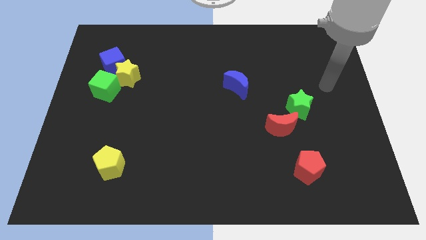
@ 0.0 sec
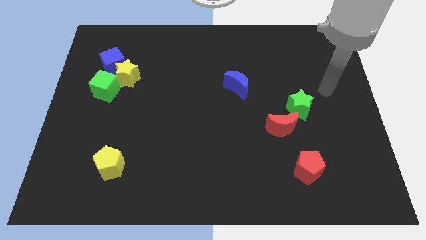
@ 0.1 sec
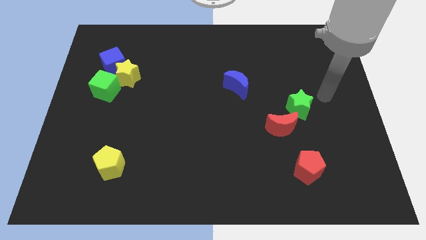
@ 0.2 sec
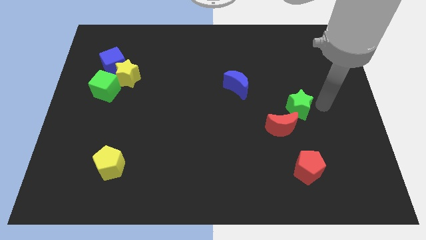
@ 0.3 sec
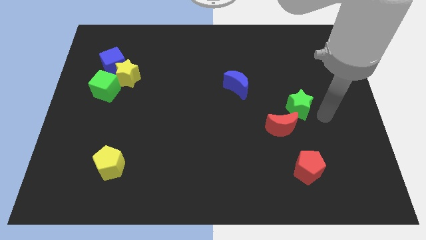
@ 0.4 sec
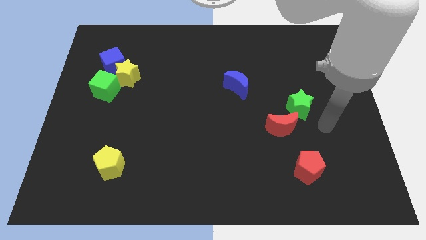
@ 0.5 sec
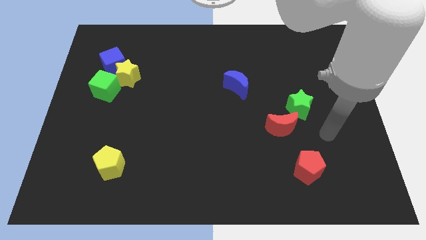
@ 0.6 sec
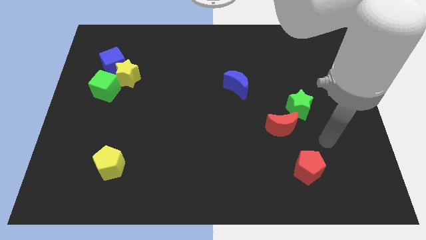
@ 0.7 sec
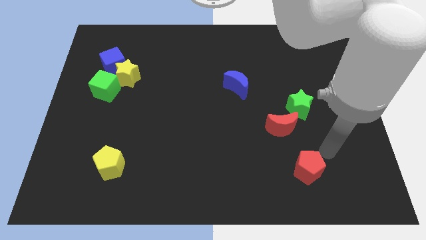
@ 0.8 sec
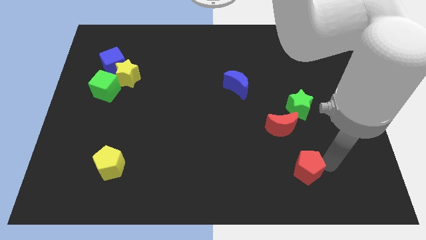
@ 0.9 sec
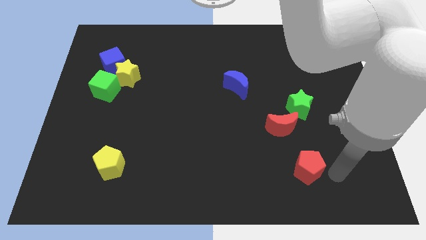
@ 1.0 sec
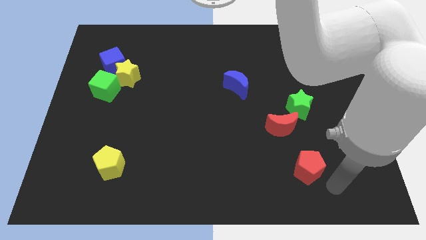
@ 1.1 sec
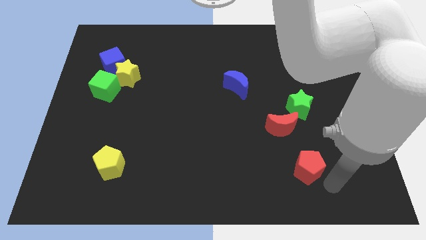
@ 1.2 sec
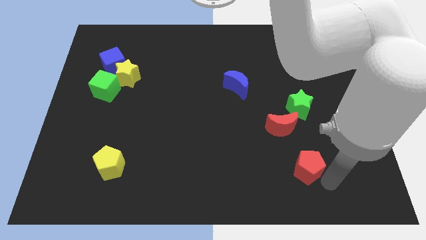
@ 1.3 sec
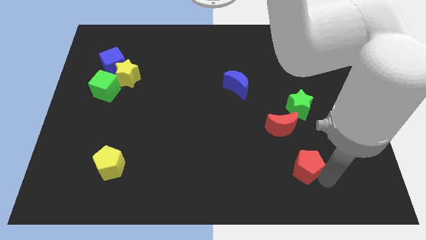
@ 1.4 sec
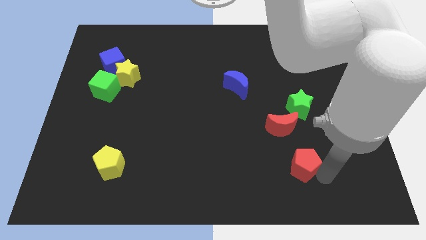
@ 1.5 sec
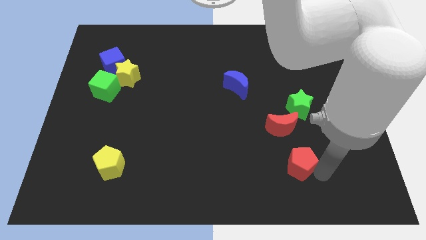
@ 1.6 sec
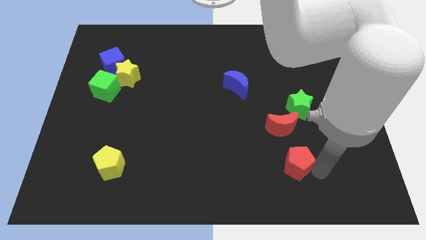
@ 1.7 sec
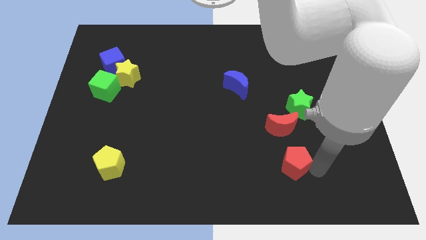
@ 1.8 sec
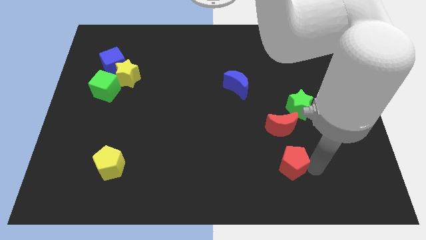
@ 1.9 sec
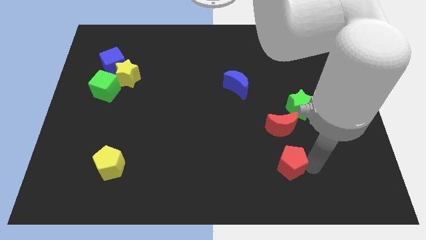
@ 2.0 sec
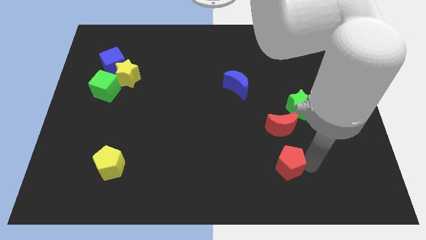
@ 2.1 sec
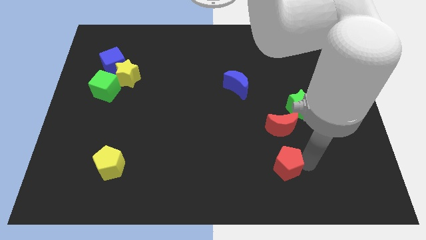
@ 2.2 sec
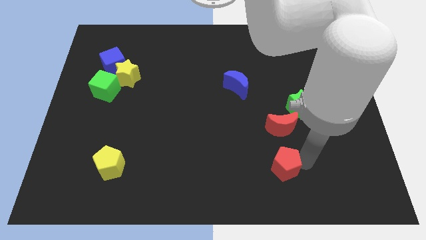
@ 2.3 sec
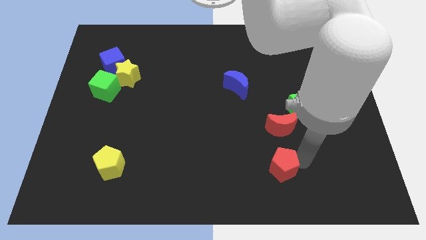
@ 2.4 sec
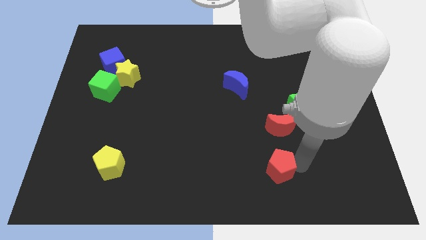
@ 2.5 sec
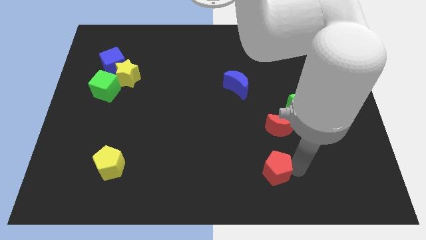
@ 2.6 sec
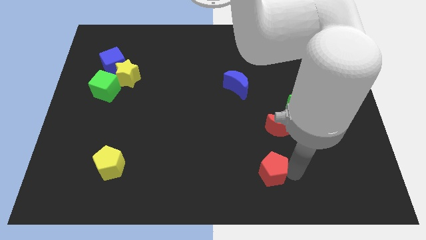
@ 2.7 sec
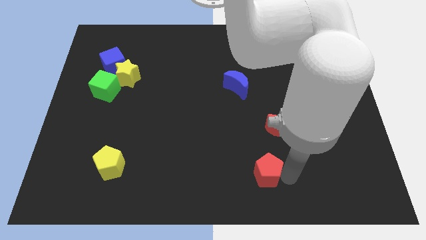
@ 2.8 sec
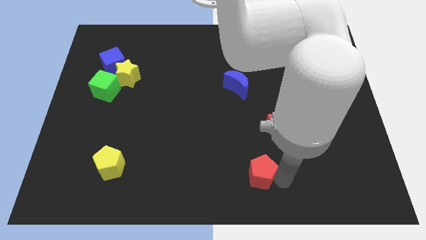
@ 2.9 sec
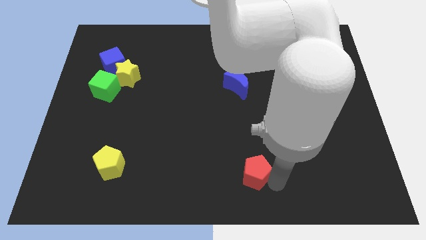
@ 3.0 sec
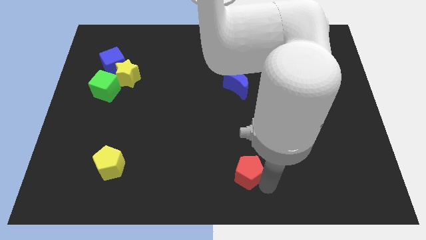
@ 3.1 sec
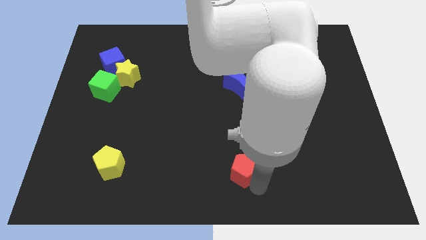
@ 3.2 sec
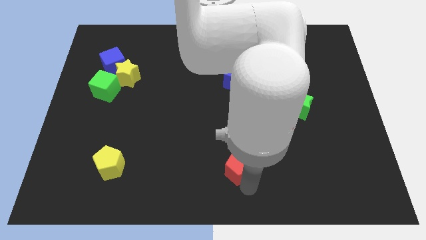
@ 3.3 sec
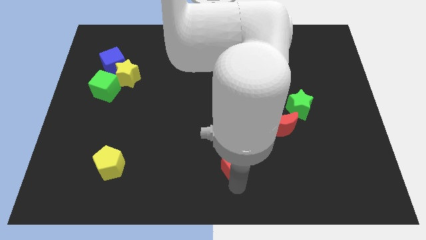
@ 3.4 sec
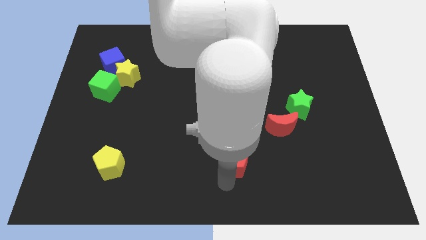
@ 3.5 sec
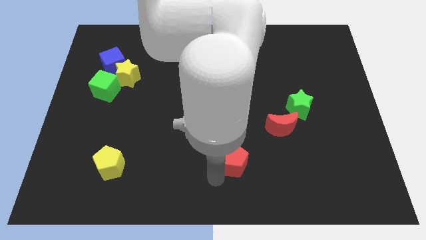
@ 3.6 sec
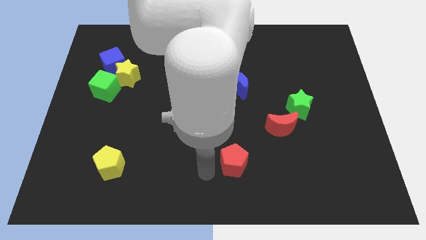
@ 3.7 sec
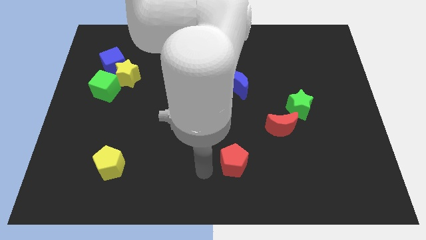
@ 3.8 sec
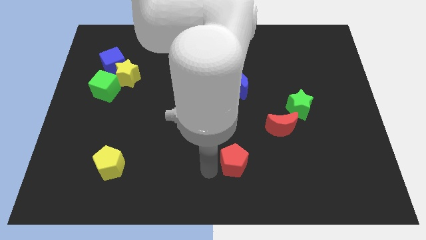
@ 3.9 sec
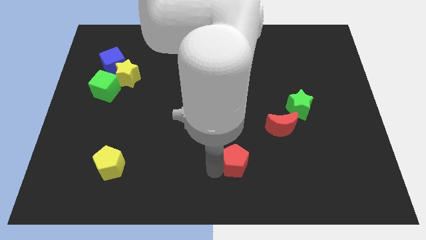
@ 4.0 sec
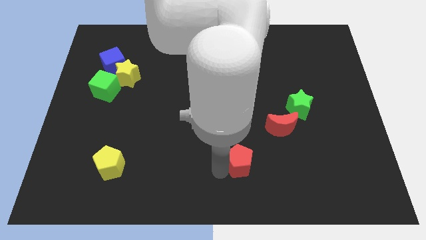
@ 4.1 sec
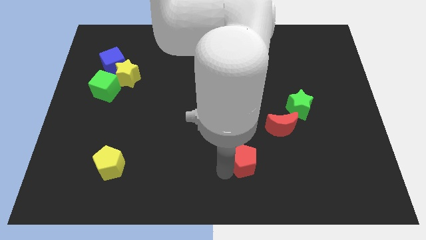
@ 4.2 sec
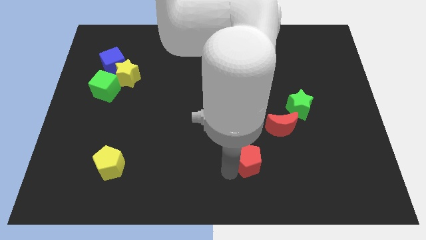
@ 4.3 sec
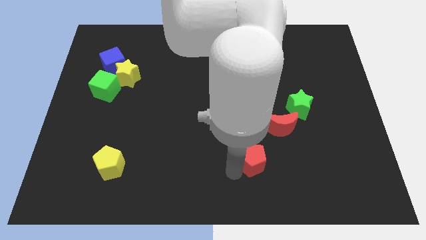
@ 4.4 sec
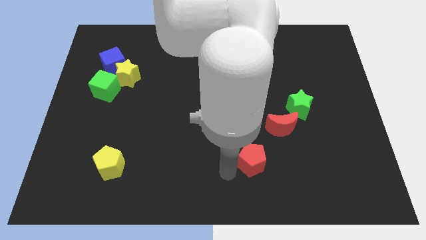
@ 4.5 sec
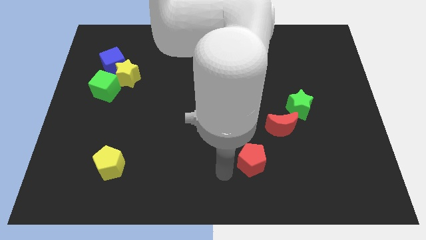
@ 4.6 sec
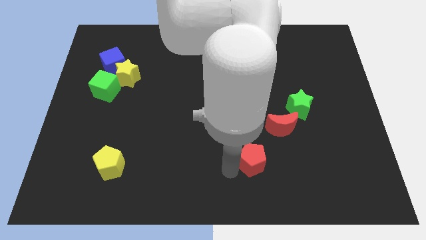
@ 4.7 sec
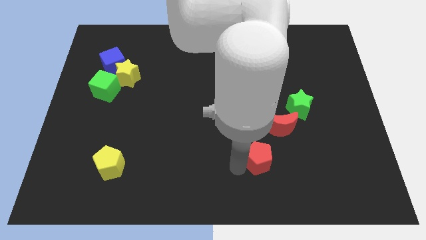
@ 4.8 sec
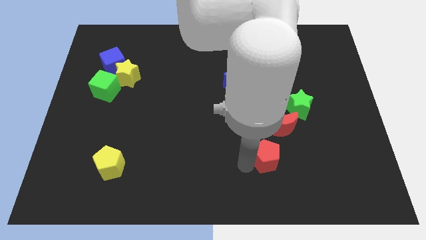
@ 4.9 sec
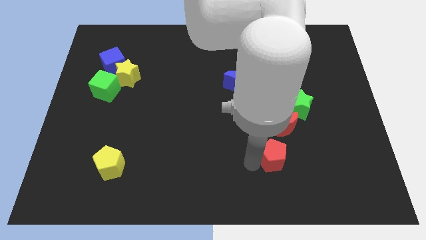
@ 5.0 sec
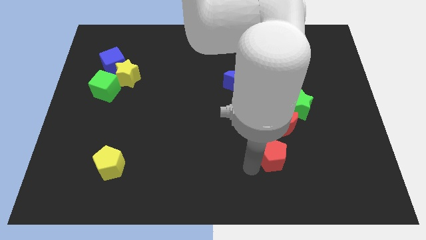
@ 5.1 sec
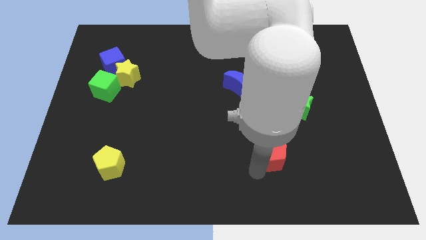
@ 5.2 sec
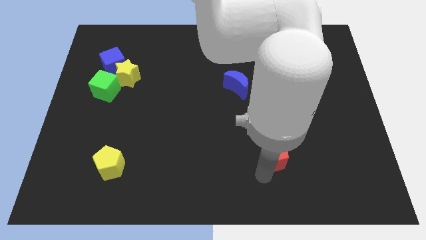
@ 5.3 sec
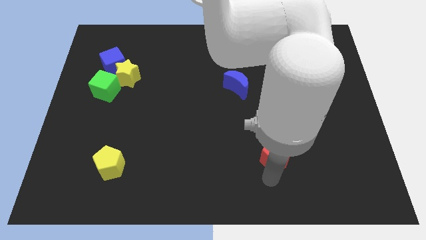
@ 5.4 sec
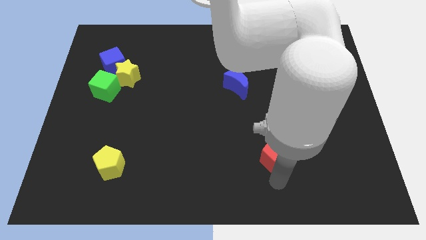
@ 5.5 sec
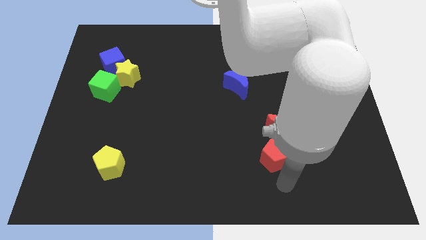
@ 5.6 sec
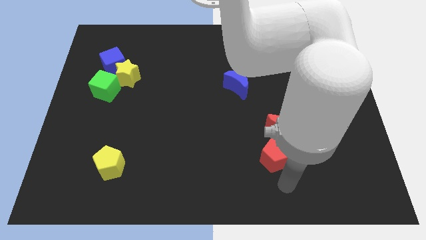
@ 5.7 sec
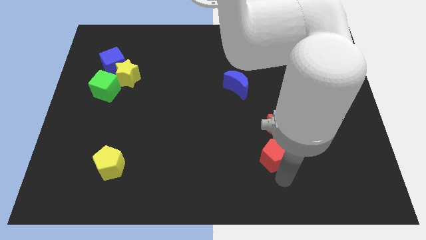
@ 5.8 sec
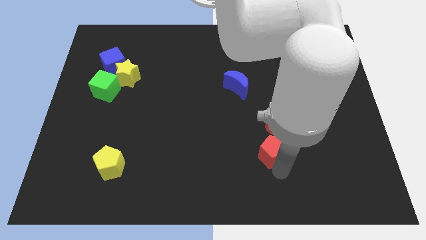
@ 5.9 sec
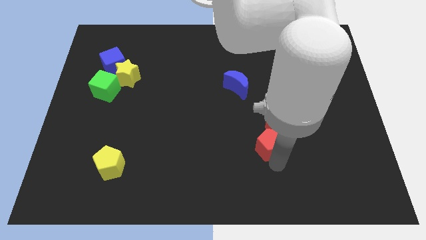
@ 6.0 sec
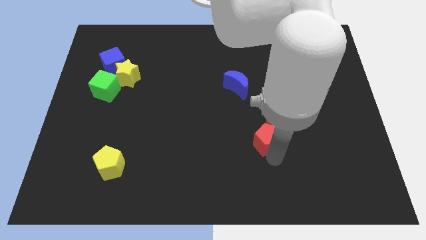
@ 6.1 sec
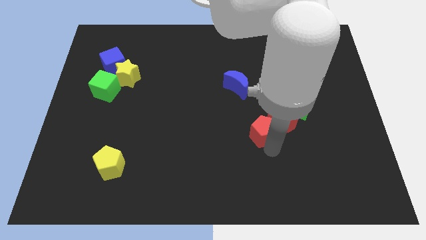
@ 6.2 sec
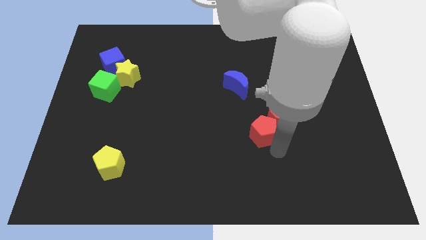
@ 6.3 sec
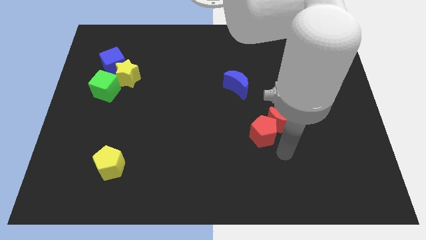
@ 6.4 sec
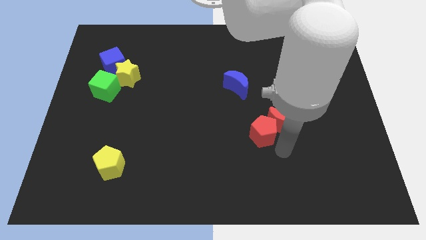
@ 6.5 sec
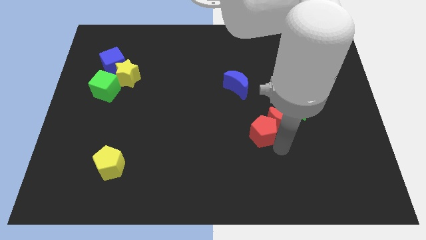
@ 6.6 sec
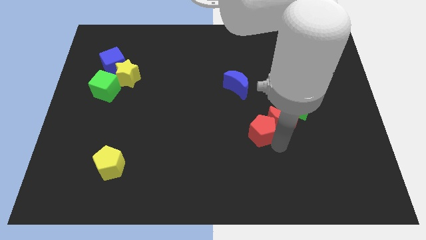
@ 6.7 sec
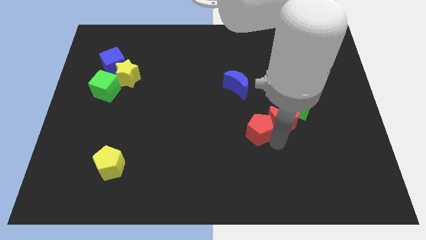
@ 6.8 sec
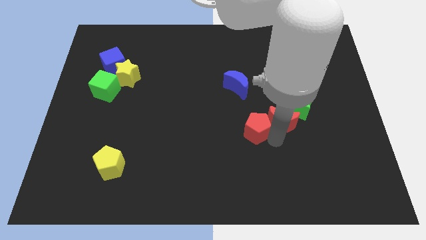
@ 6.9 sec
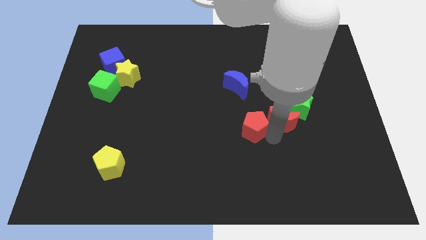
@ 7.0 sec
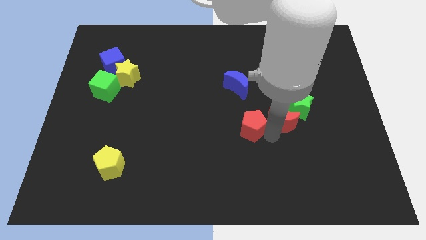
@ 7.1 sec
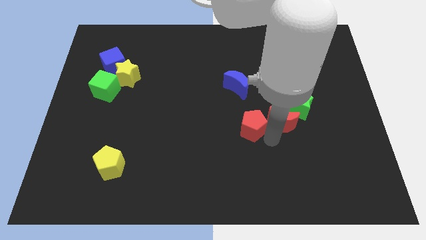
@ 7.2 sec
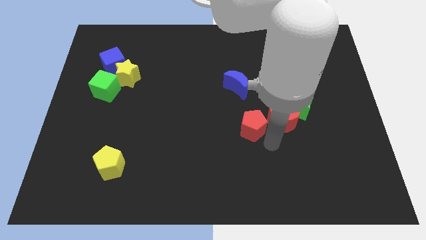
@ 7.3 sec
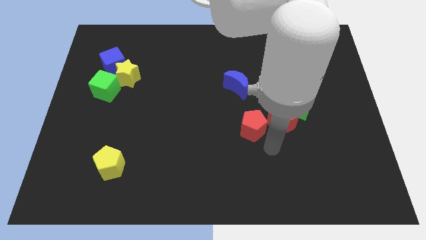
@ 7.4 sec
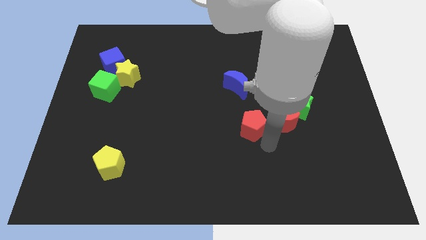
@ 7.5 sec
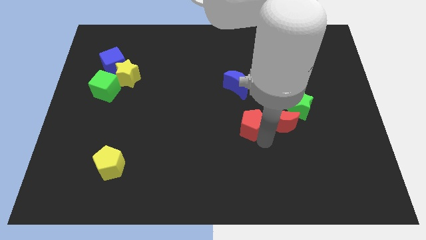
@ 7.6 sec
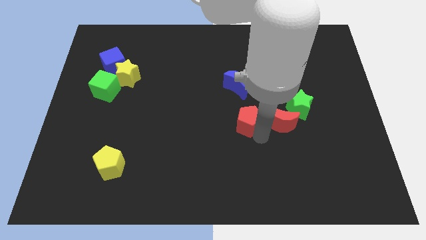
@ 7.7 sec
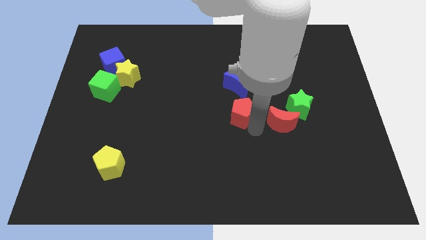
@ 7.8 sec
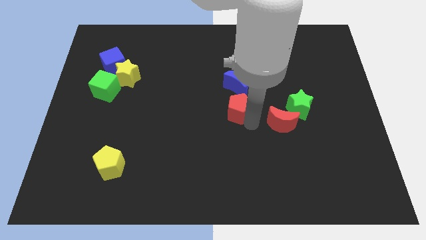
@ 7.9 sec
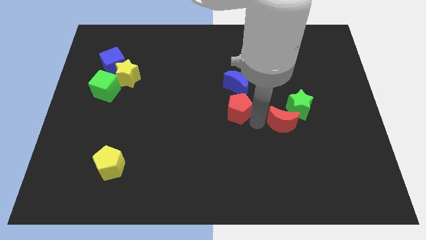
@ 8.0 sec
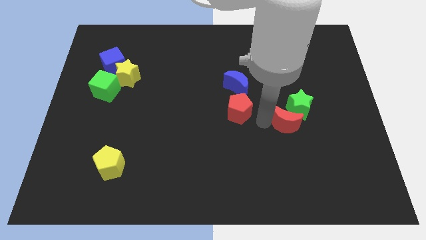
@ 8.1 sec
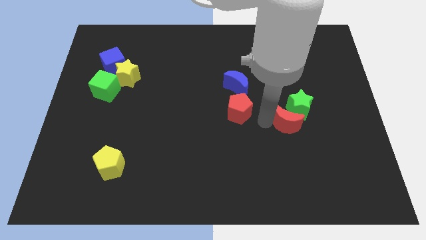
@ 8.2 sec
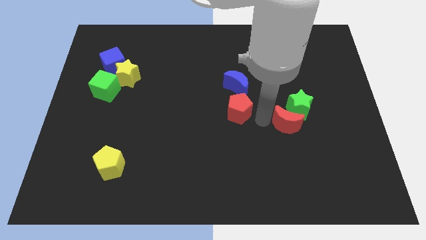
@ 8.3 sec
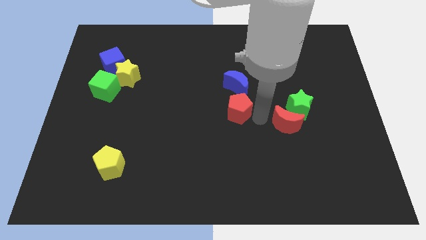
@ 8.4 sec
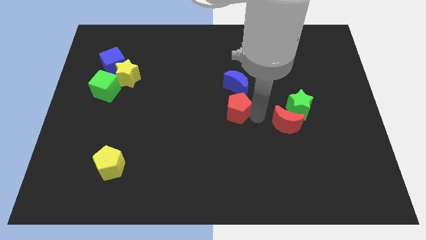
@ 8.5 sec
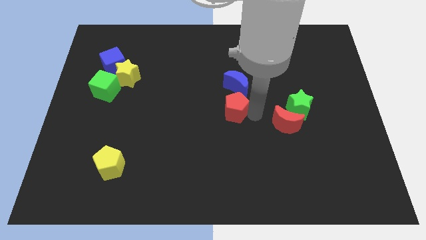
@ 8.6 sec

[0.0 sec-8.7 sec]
move the red pentagon diagonally down and to the left of the blue moon
